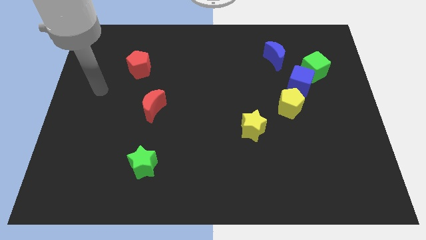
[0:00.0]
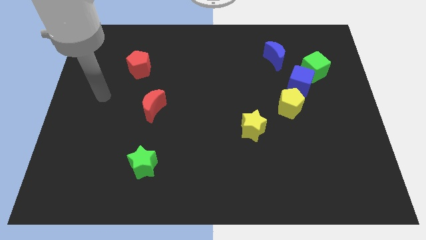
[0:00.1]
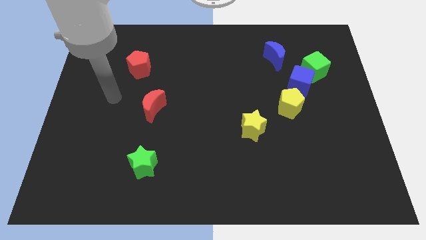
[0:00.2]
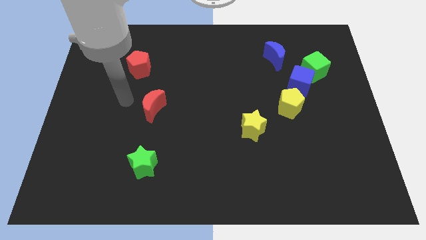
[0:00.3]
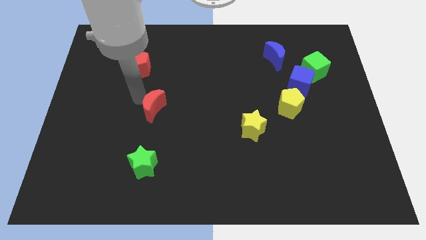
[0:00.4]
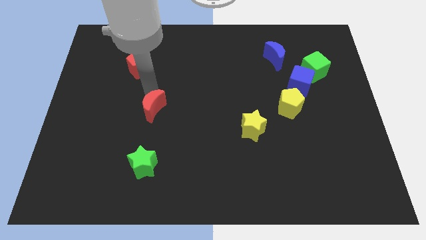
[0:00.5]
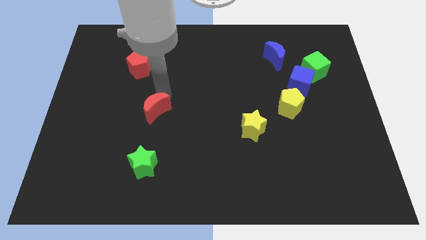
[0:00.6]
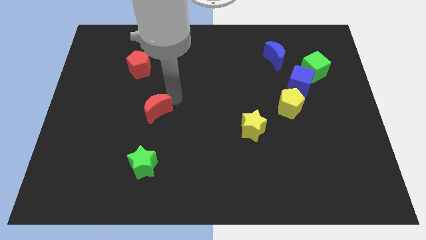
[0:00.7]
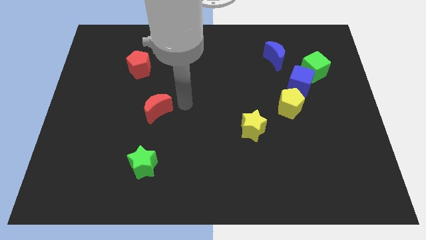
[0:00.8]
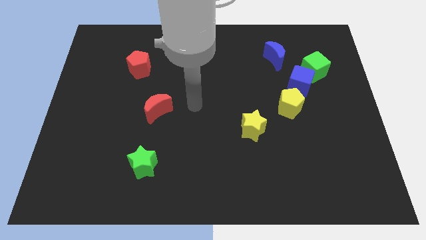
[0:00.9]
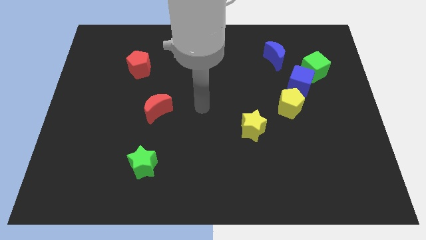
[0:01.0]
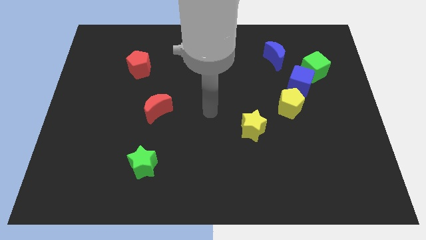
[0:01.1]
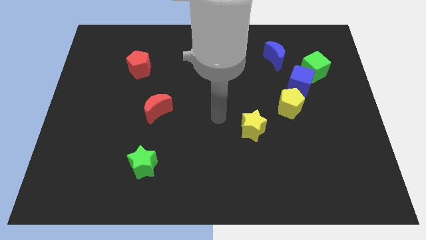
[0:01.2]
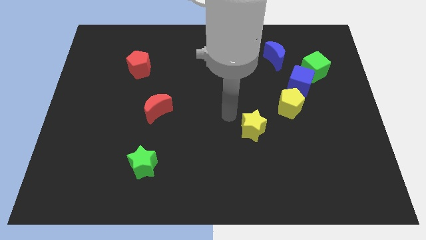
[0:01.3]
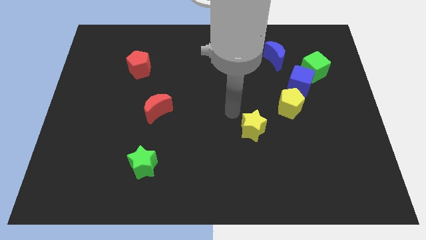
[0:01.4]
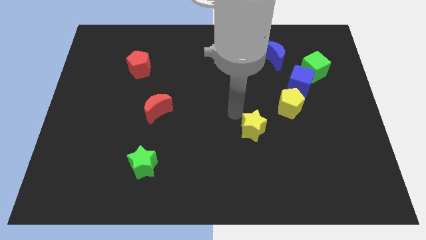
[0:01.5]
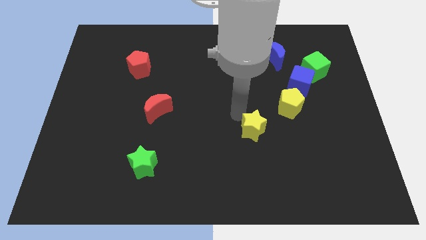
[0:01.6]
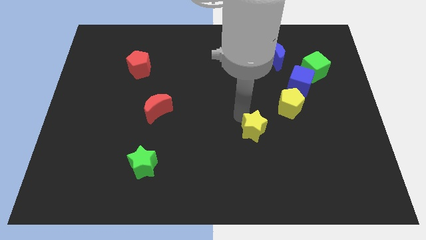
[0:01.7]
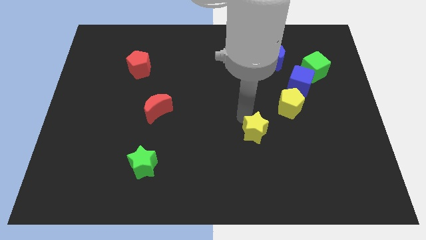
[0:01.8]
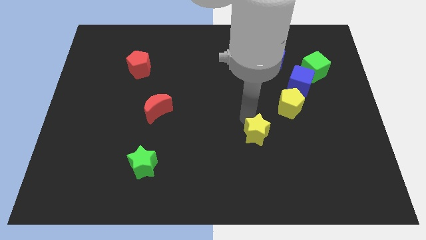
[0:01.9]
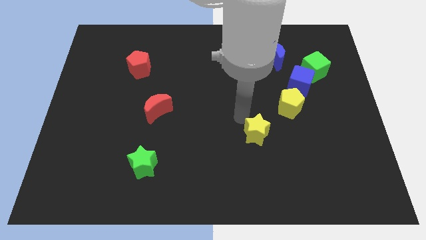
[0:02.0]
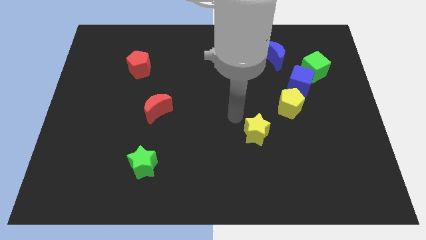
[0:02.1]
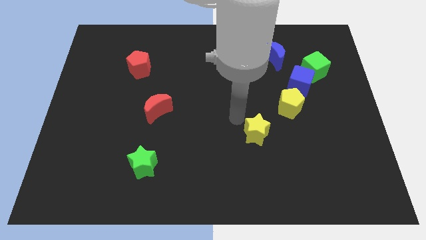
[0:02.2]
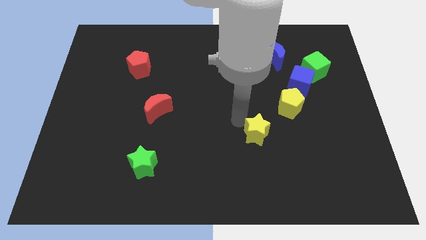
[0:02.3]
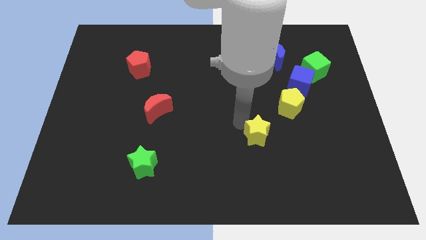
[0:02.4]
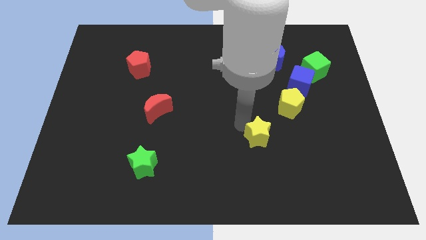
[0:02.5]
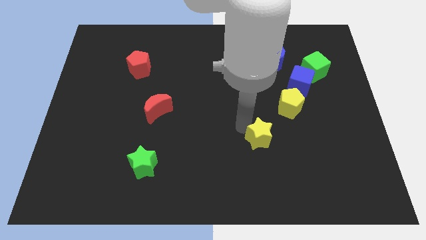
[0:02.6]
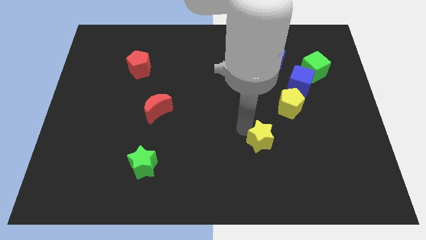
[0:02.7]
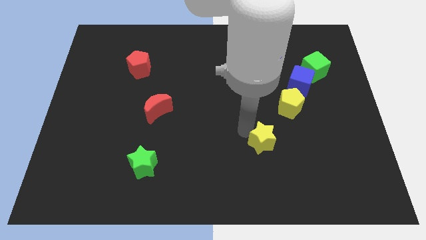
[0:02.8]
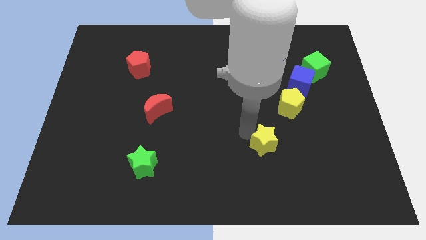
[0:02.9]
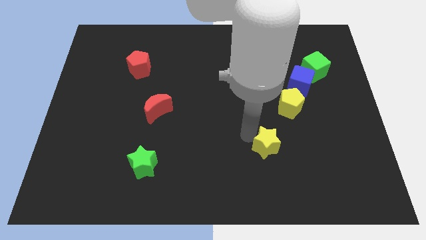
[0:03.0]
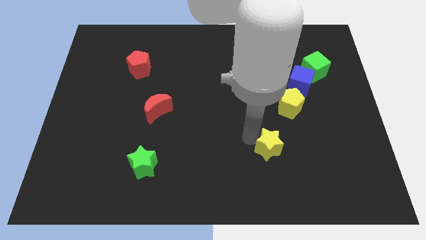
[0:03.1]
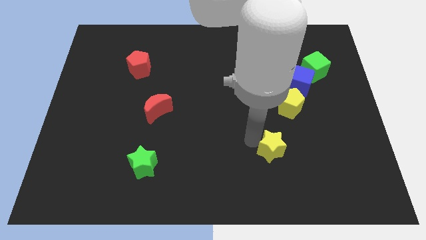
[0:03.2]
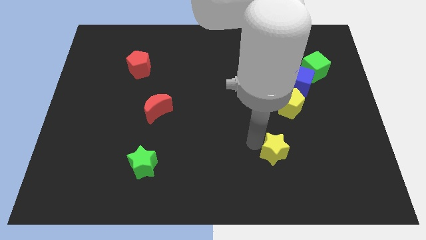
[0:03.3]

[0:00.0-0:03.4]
slide the yellow star downwards and to the right a little bit

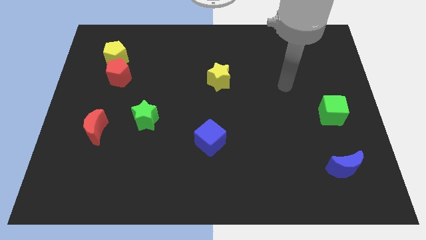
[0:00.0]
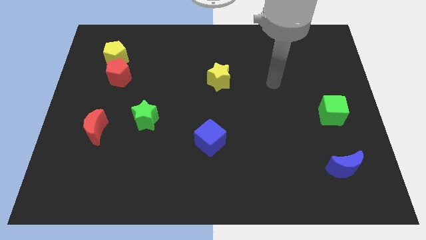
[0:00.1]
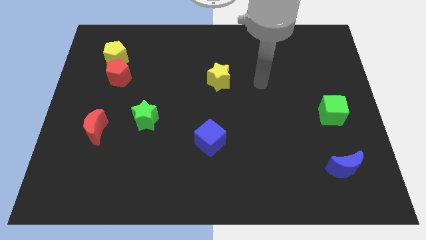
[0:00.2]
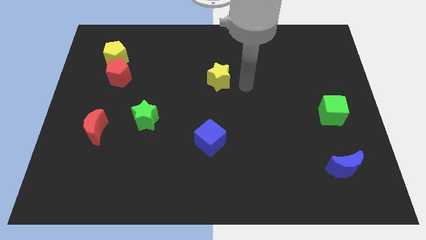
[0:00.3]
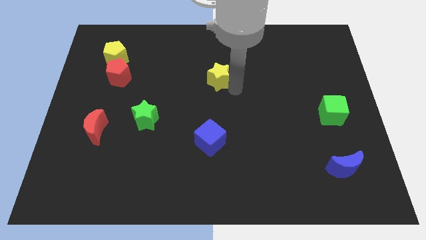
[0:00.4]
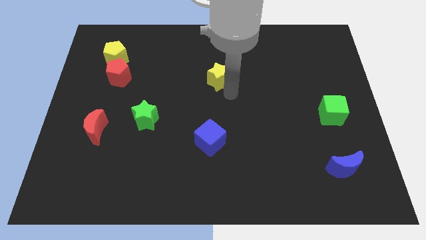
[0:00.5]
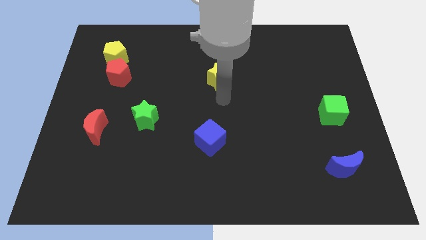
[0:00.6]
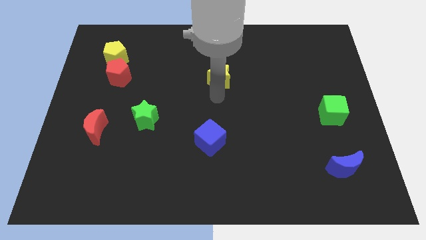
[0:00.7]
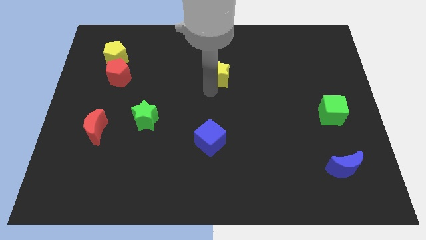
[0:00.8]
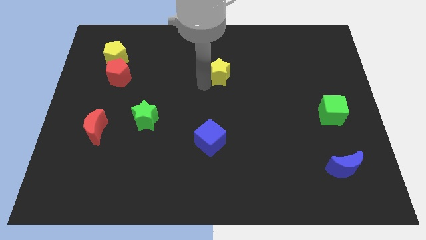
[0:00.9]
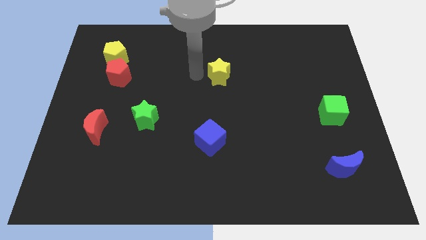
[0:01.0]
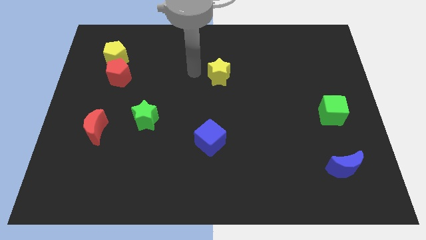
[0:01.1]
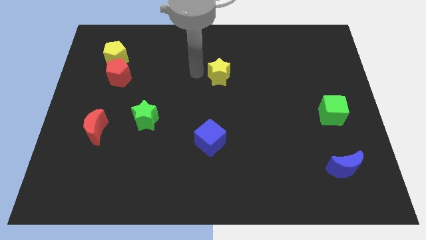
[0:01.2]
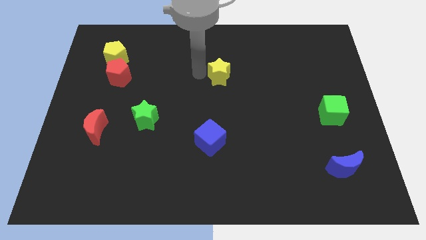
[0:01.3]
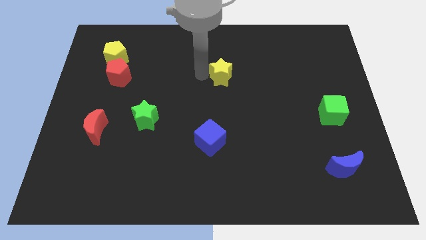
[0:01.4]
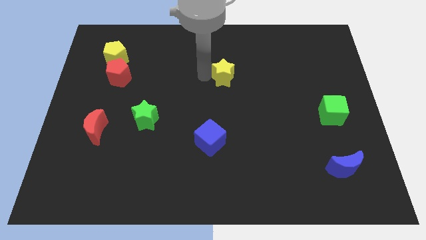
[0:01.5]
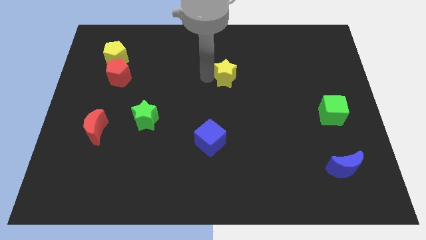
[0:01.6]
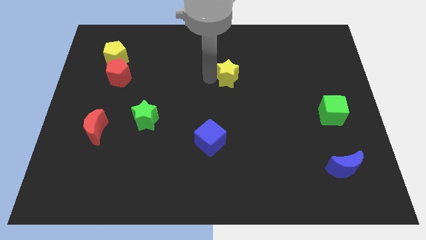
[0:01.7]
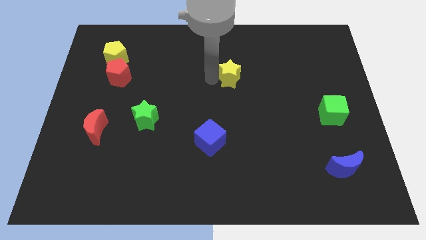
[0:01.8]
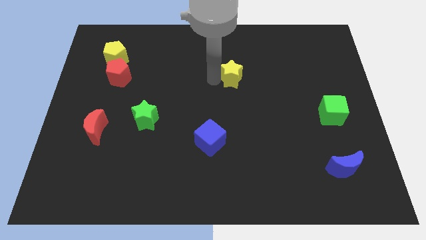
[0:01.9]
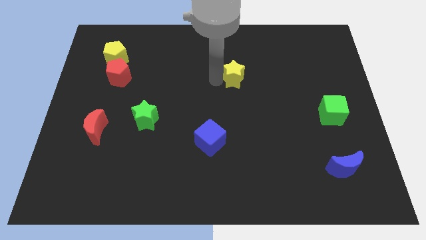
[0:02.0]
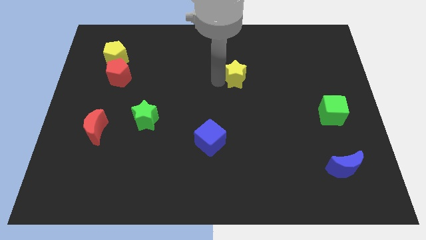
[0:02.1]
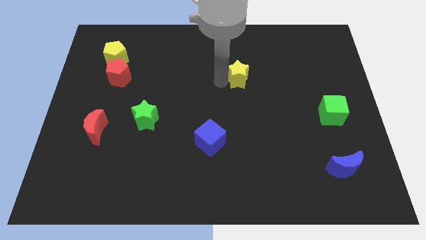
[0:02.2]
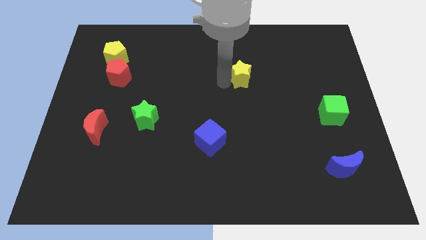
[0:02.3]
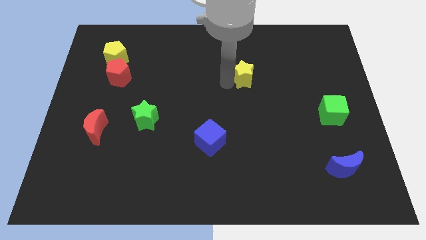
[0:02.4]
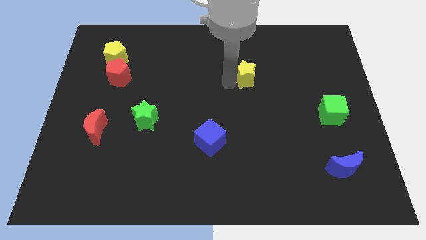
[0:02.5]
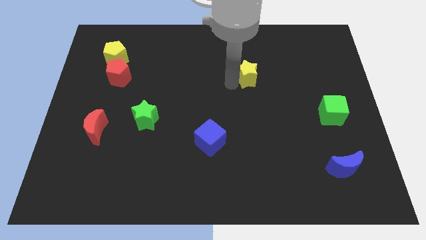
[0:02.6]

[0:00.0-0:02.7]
slightly push the yellow star to the right

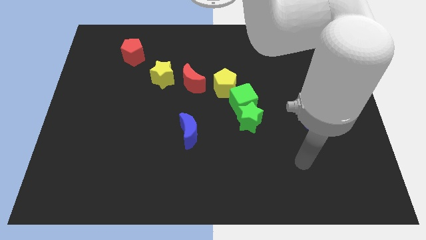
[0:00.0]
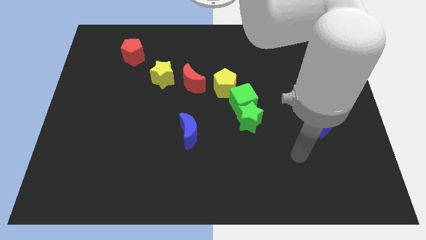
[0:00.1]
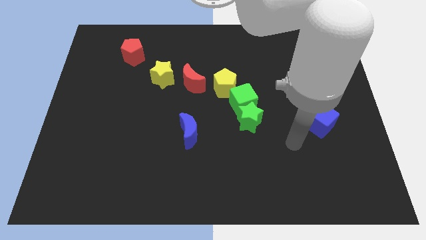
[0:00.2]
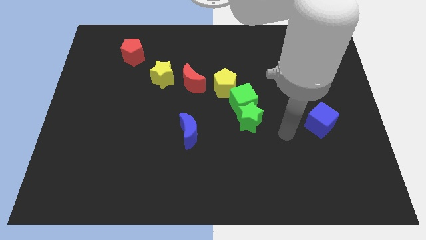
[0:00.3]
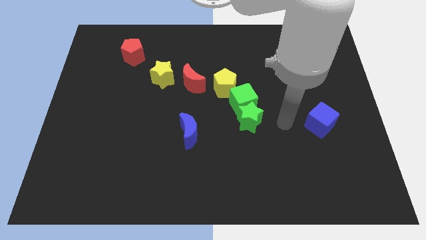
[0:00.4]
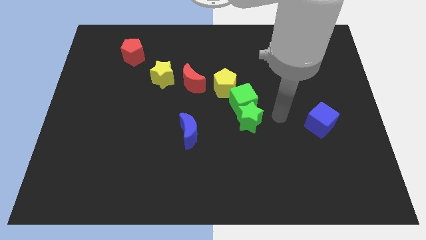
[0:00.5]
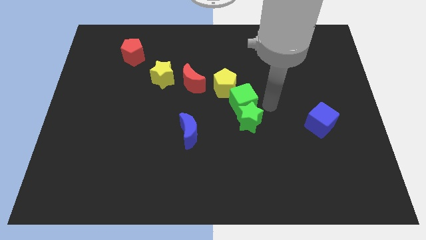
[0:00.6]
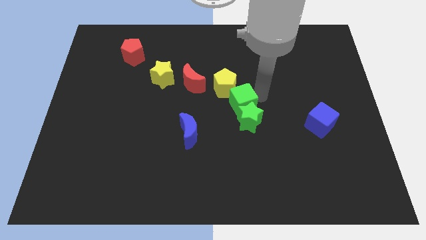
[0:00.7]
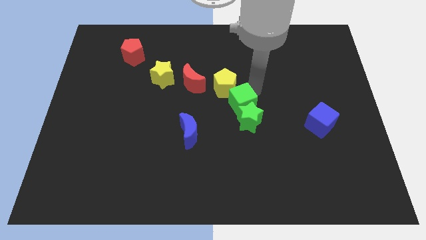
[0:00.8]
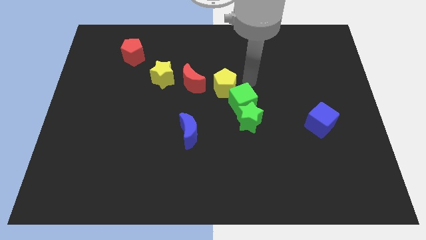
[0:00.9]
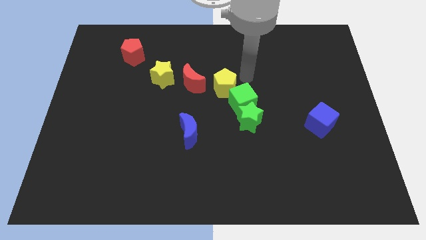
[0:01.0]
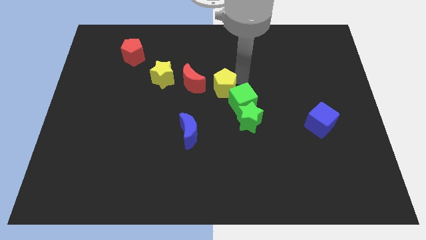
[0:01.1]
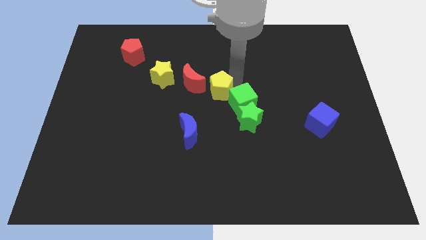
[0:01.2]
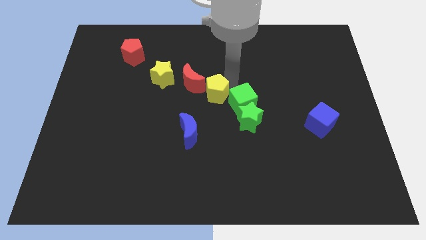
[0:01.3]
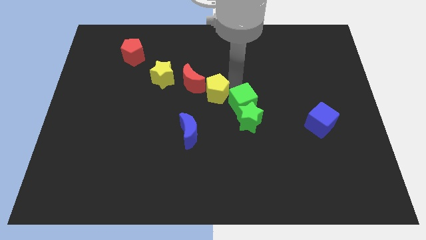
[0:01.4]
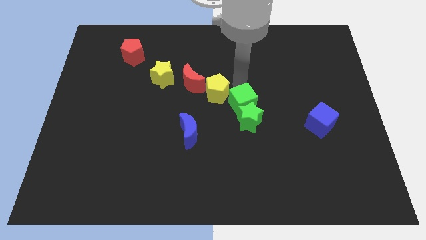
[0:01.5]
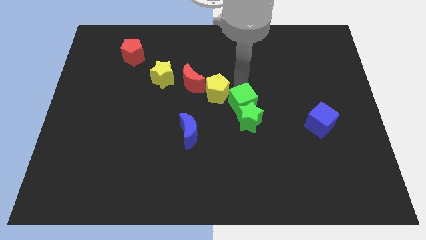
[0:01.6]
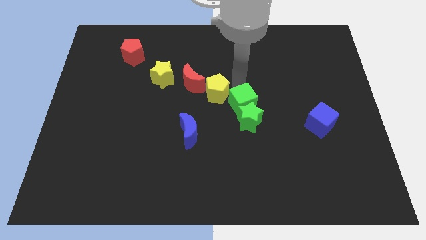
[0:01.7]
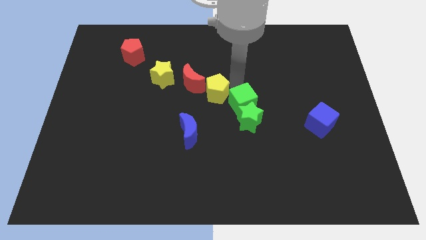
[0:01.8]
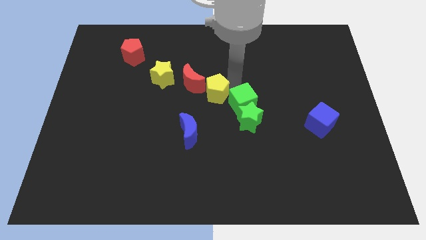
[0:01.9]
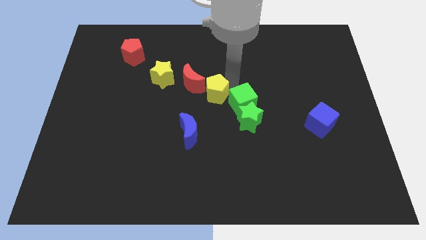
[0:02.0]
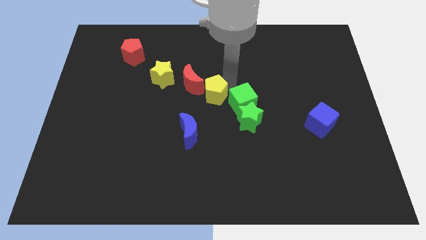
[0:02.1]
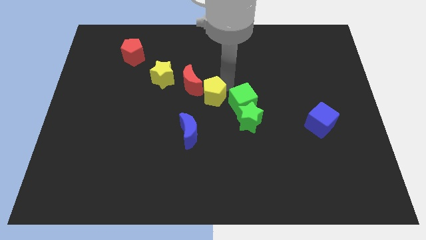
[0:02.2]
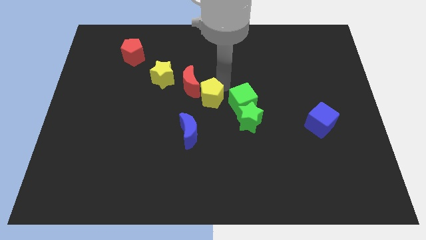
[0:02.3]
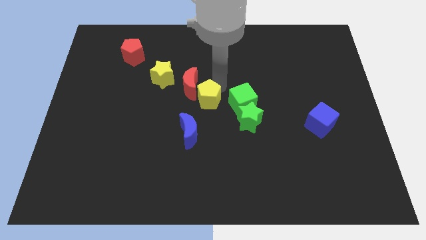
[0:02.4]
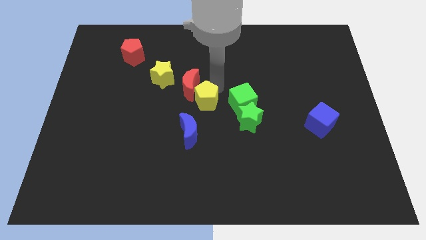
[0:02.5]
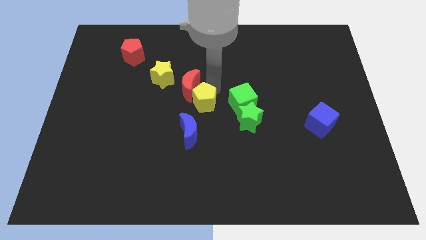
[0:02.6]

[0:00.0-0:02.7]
move the yellow pentagon down and to the left diagonally slightly
